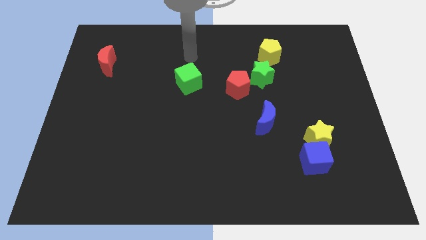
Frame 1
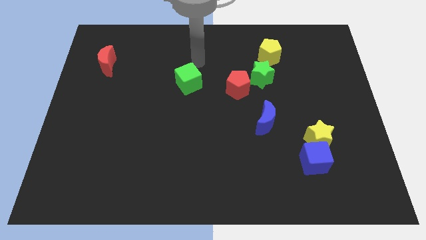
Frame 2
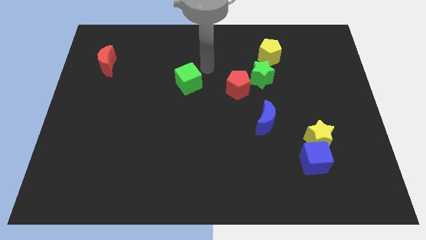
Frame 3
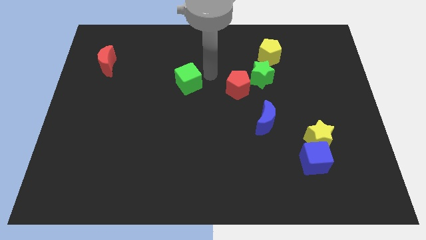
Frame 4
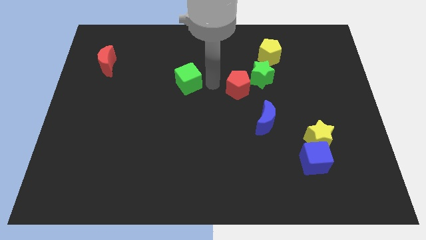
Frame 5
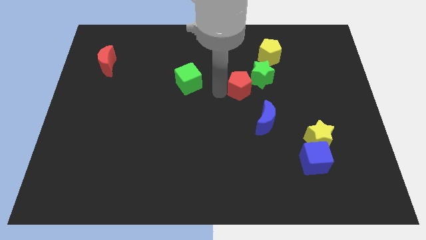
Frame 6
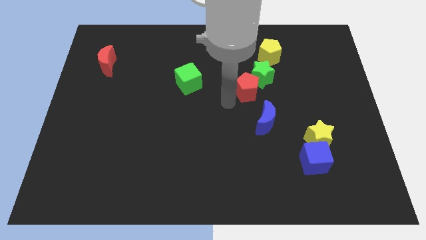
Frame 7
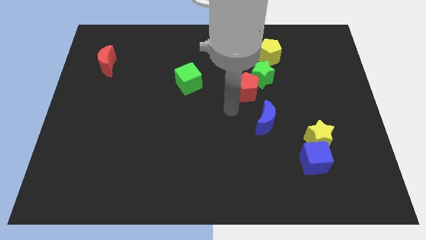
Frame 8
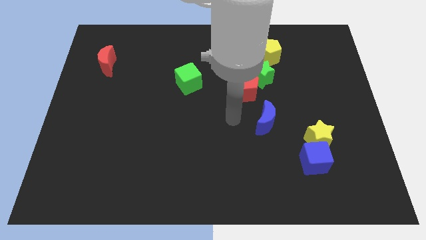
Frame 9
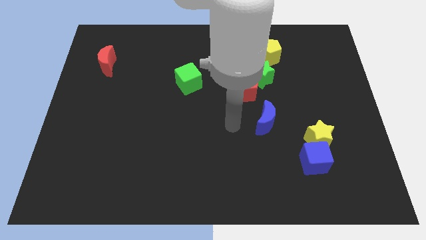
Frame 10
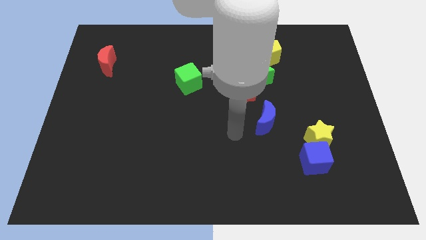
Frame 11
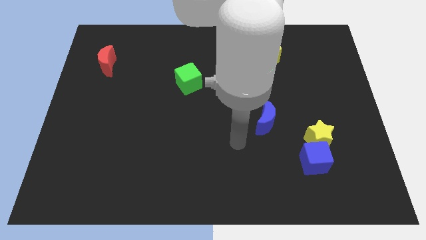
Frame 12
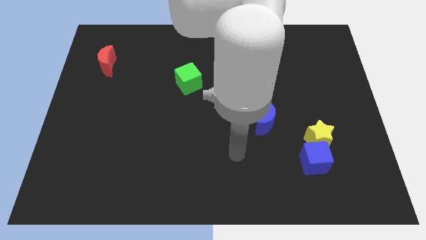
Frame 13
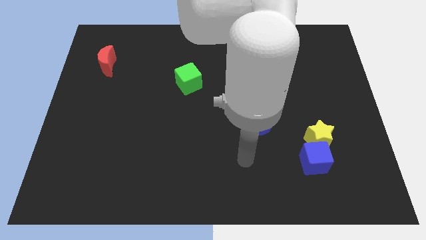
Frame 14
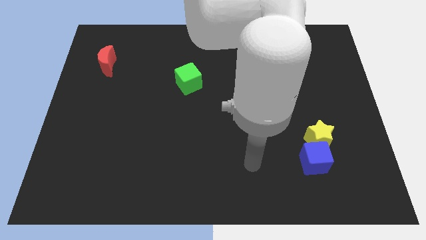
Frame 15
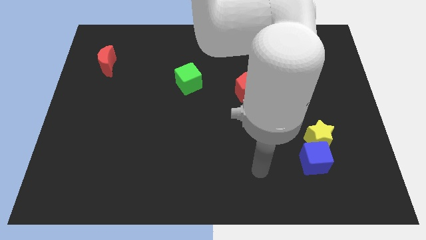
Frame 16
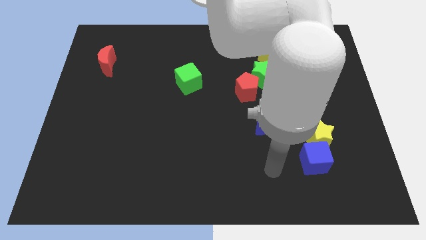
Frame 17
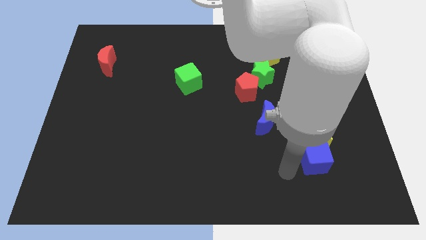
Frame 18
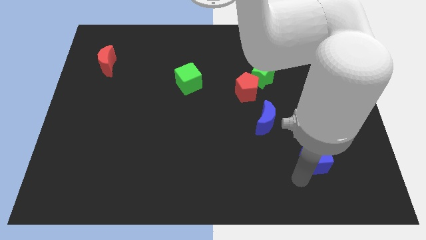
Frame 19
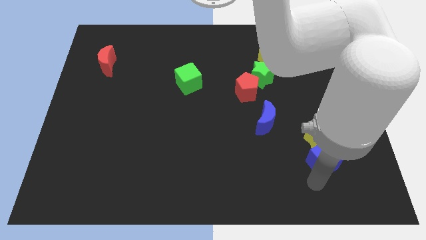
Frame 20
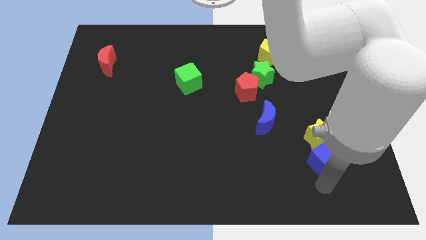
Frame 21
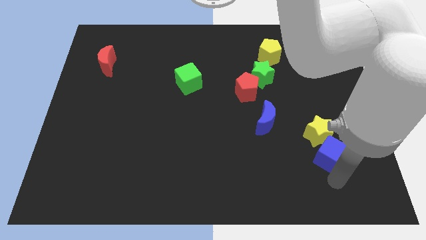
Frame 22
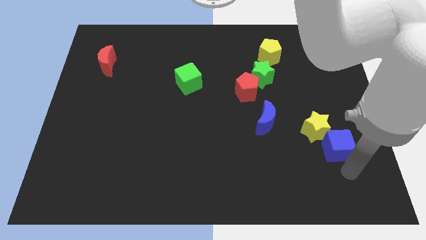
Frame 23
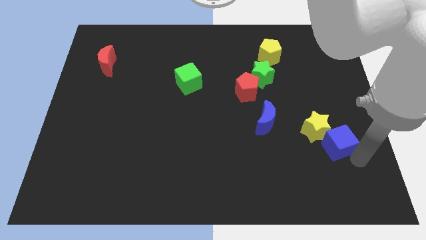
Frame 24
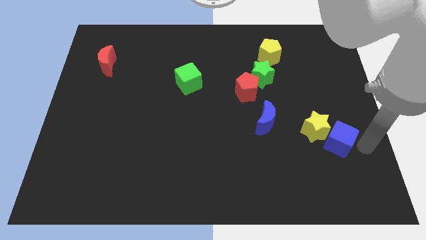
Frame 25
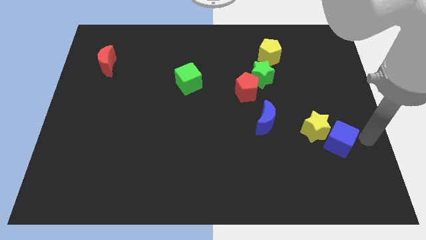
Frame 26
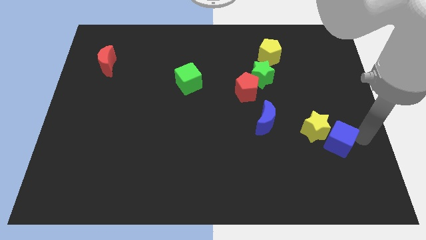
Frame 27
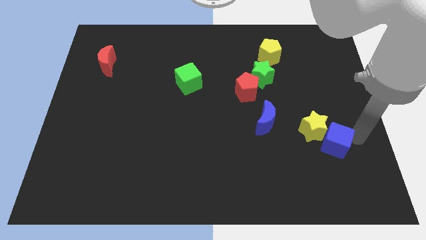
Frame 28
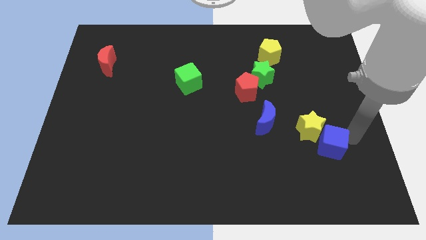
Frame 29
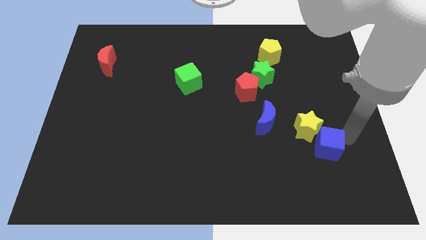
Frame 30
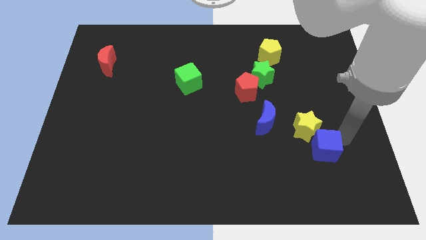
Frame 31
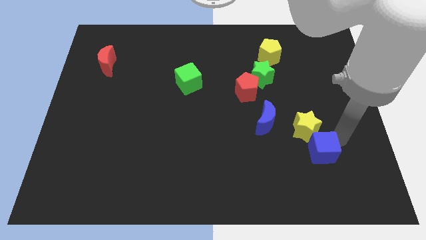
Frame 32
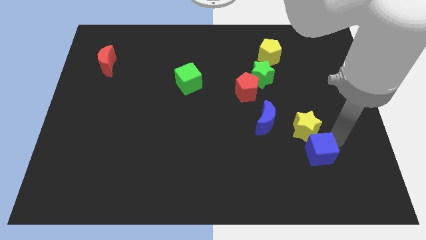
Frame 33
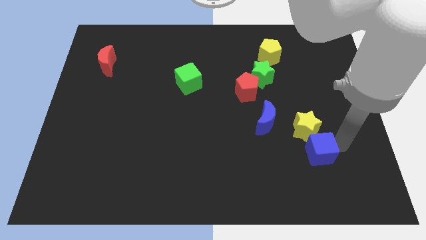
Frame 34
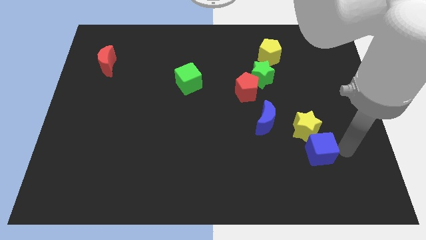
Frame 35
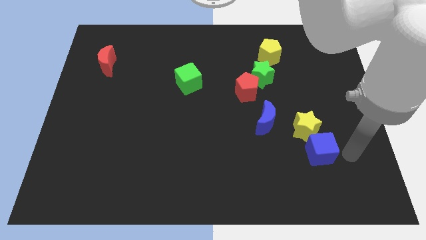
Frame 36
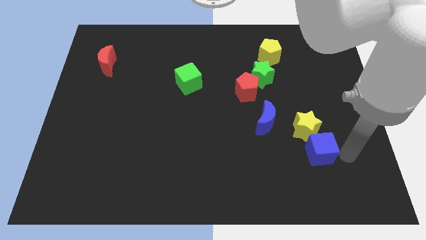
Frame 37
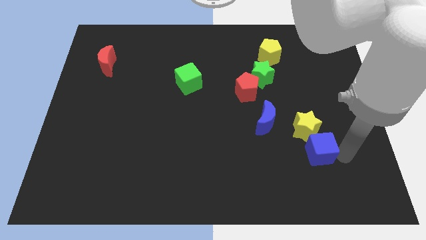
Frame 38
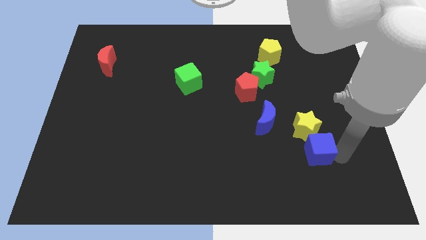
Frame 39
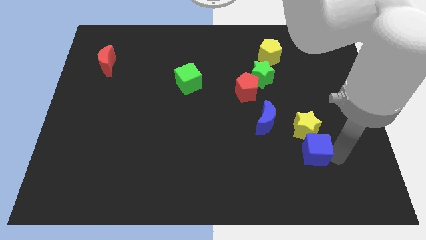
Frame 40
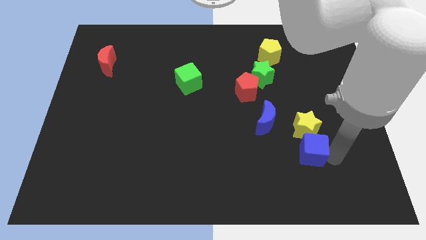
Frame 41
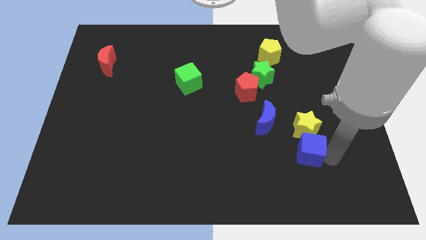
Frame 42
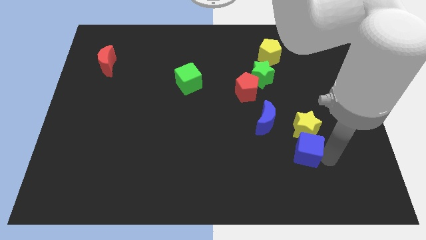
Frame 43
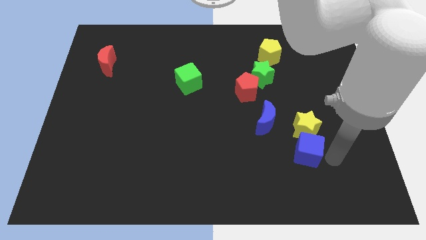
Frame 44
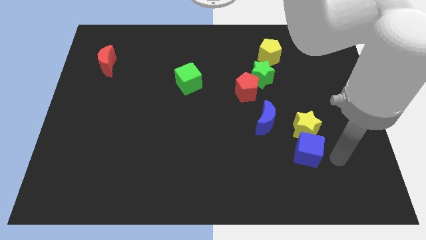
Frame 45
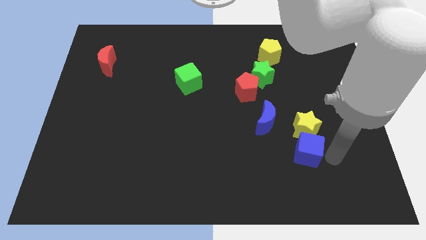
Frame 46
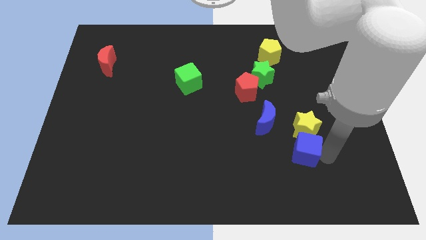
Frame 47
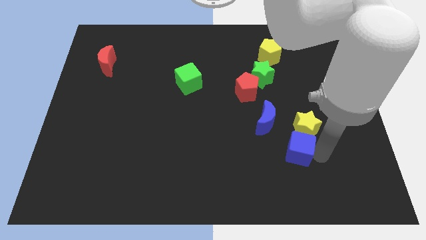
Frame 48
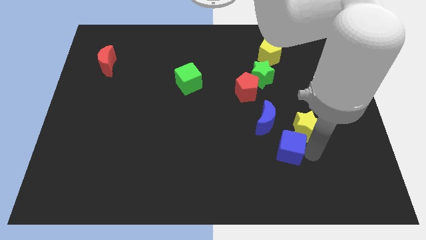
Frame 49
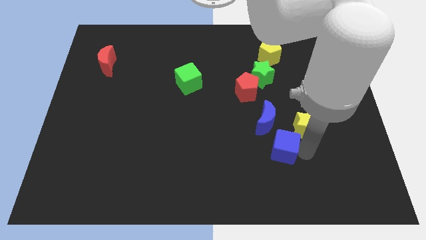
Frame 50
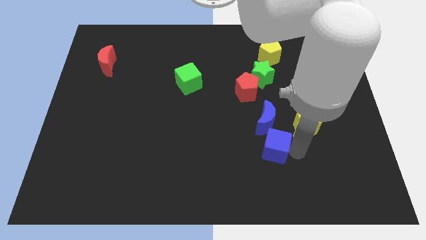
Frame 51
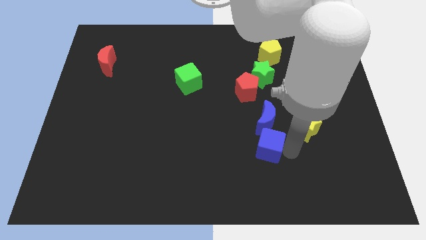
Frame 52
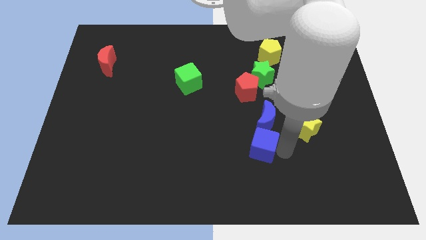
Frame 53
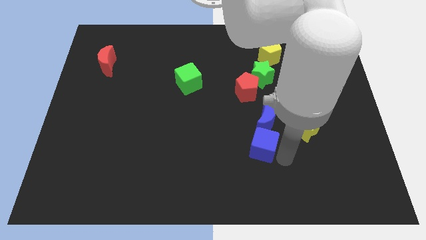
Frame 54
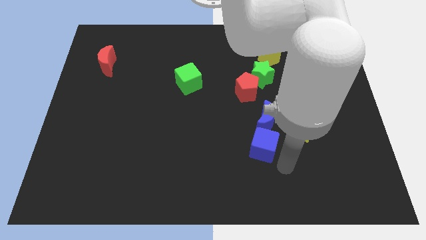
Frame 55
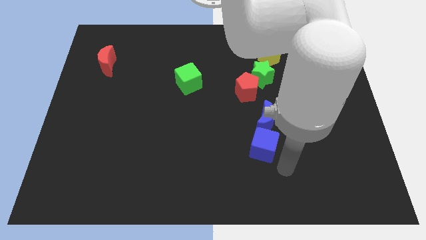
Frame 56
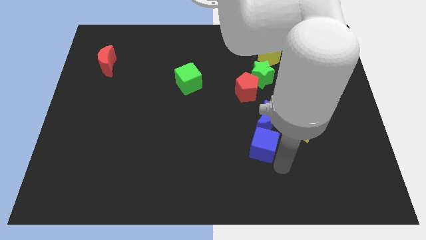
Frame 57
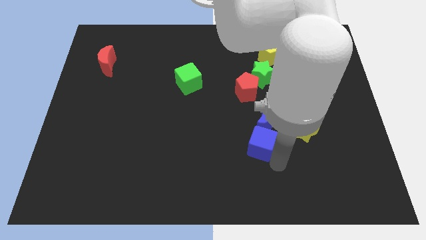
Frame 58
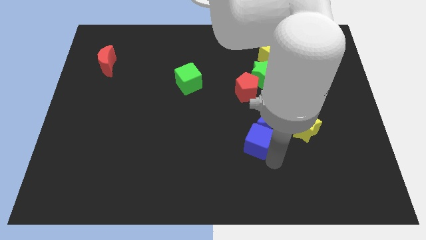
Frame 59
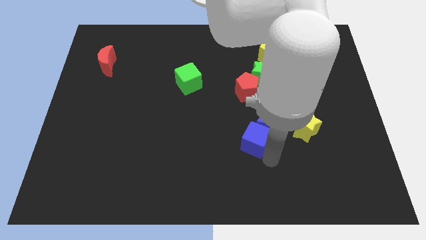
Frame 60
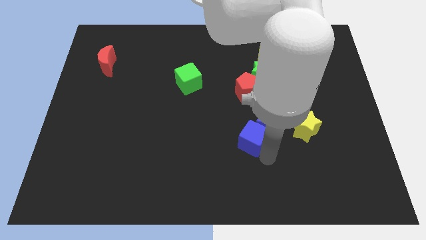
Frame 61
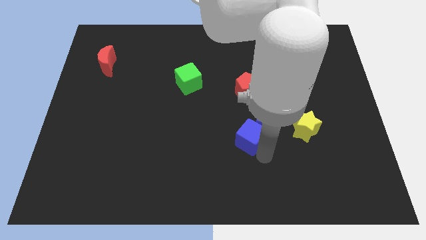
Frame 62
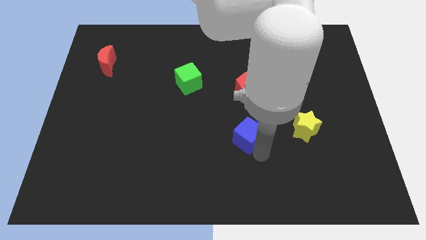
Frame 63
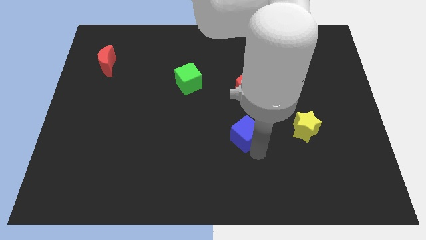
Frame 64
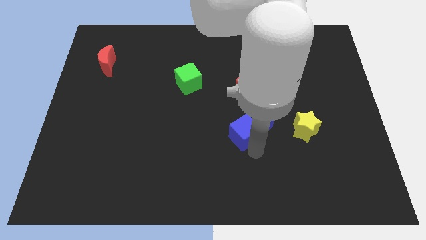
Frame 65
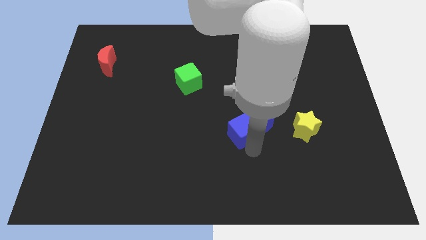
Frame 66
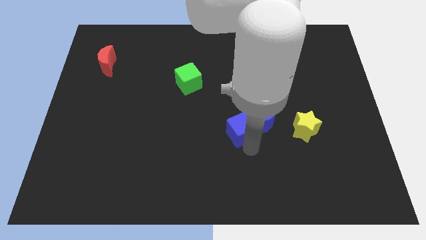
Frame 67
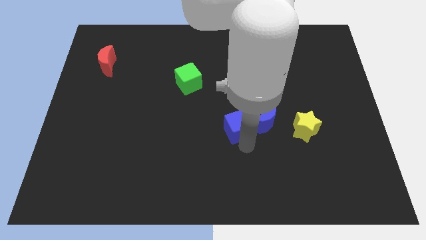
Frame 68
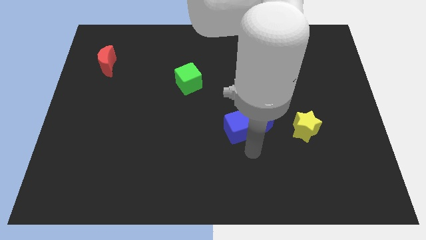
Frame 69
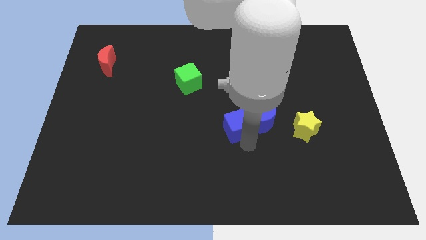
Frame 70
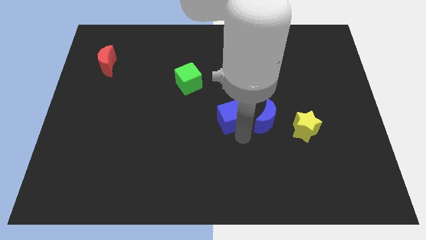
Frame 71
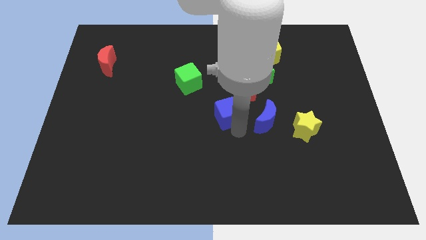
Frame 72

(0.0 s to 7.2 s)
push the blue cube upwards and left diagonally

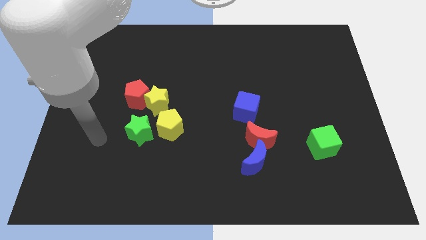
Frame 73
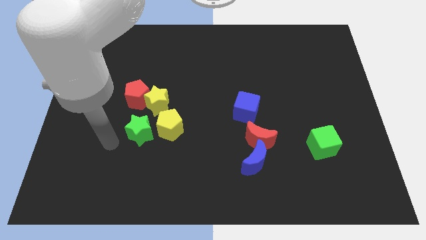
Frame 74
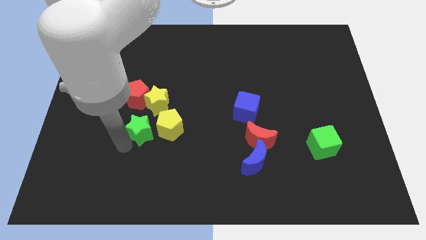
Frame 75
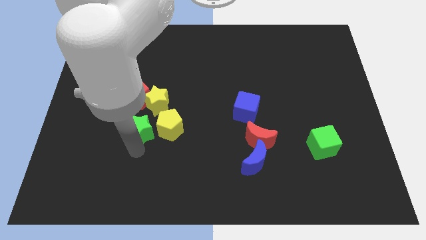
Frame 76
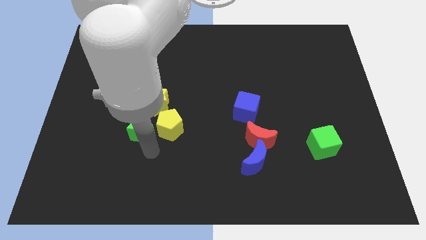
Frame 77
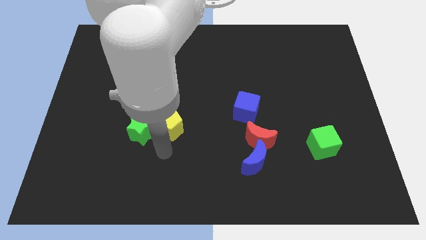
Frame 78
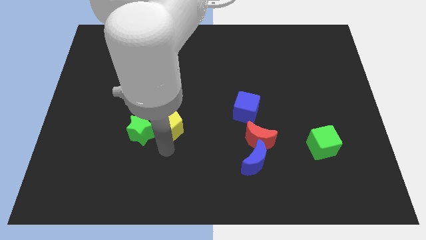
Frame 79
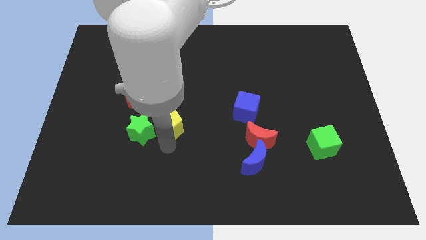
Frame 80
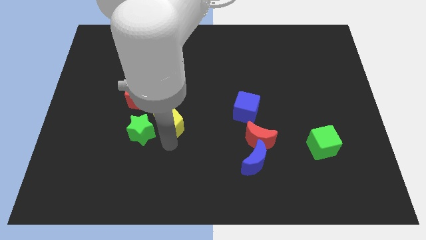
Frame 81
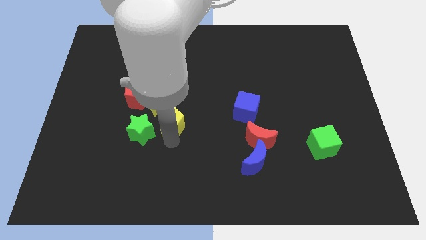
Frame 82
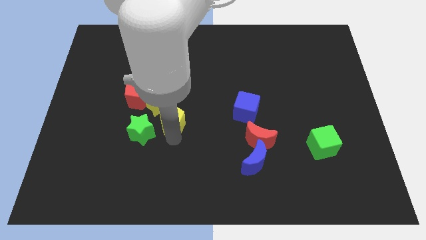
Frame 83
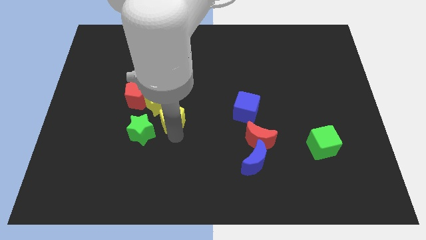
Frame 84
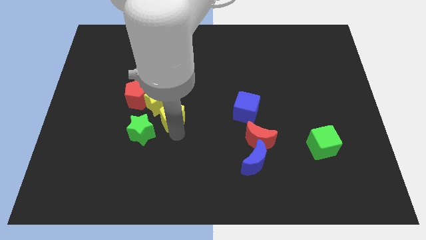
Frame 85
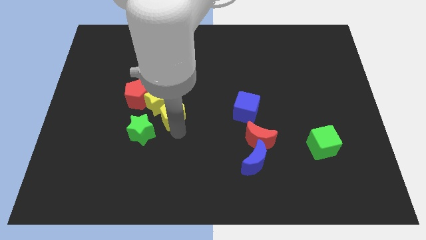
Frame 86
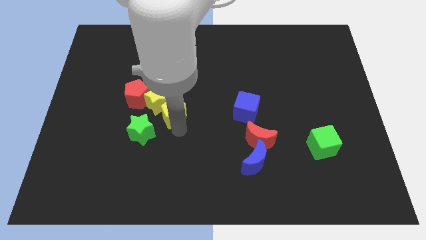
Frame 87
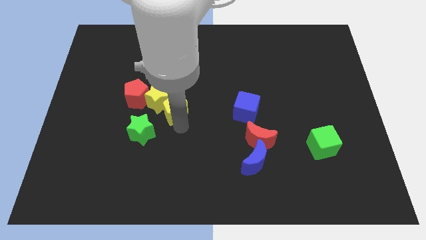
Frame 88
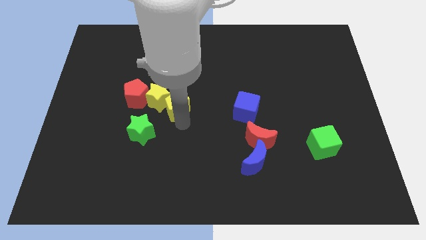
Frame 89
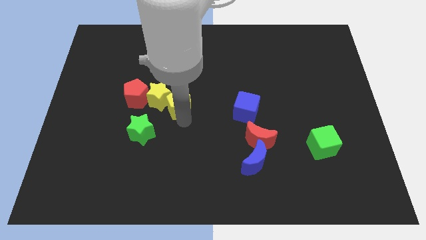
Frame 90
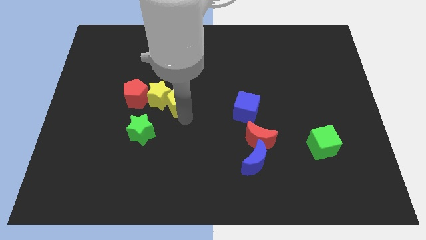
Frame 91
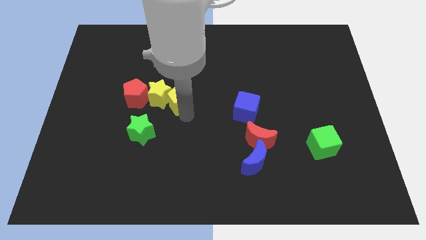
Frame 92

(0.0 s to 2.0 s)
slide the yellow pentagon up somewhat
